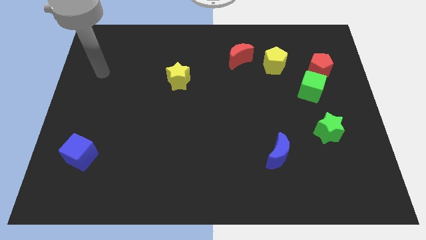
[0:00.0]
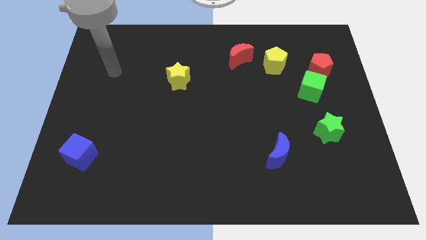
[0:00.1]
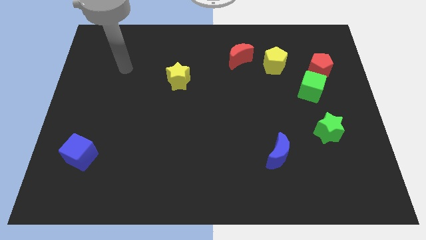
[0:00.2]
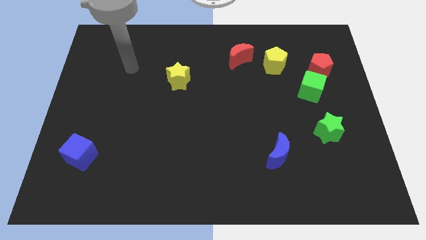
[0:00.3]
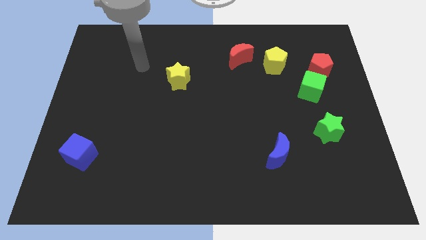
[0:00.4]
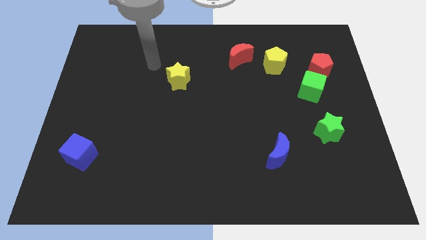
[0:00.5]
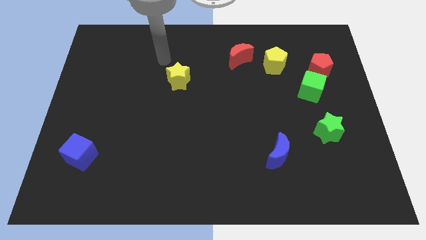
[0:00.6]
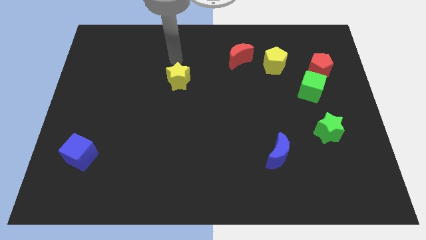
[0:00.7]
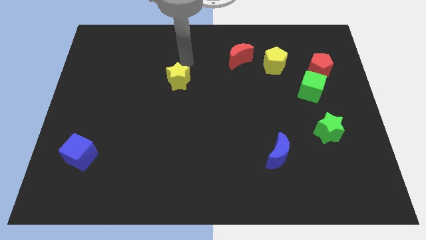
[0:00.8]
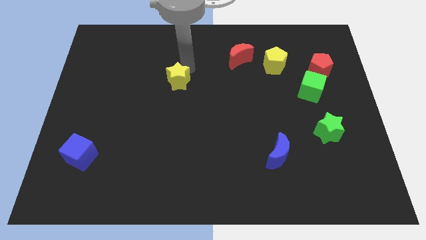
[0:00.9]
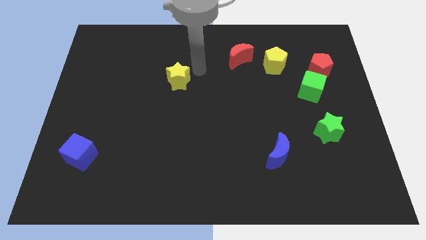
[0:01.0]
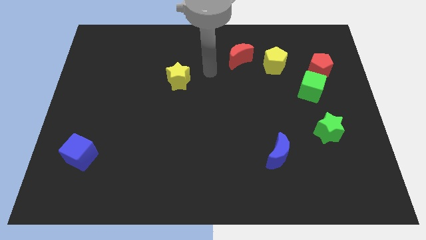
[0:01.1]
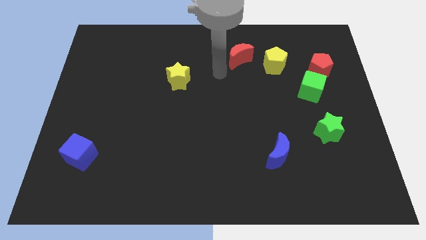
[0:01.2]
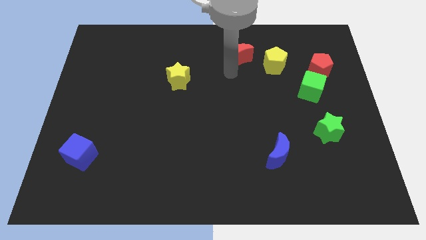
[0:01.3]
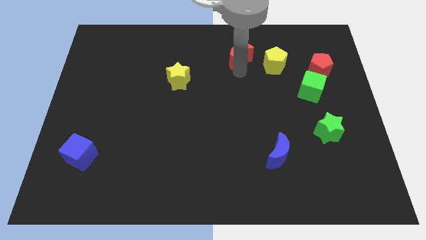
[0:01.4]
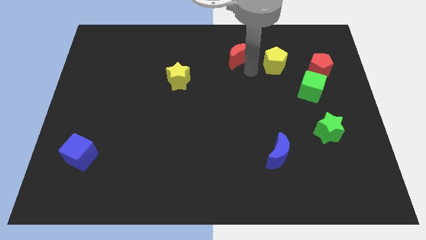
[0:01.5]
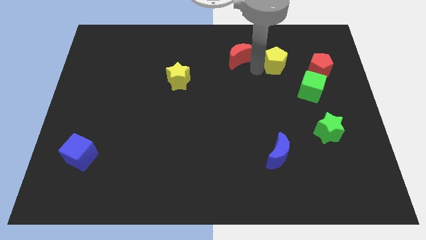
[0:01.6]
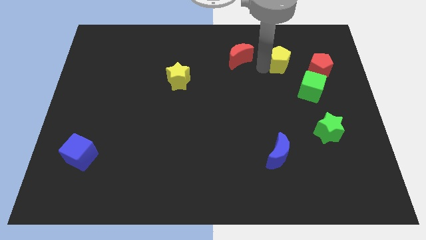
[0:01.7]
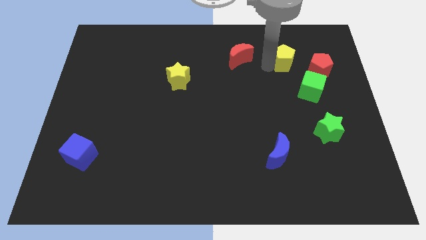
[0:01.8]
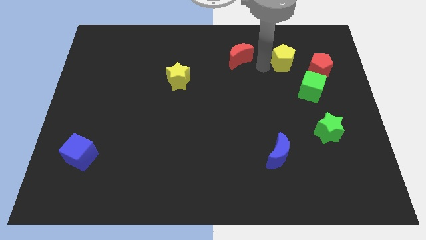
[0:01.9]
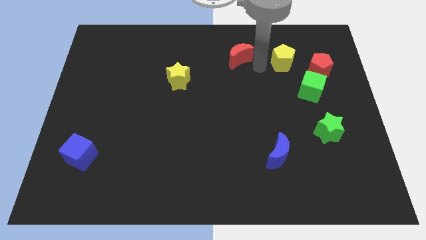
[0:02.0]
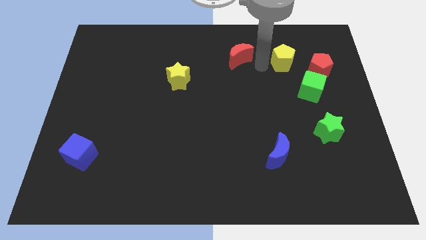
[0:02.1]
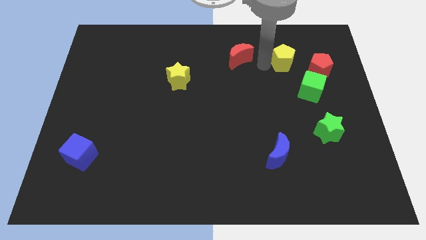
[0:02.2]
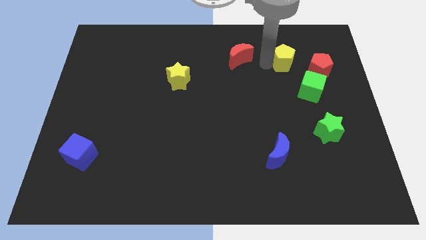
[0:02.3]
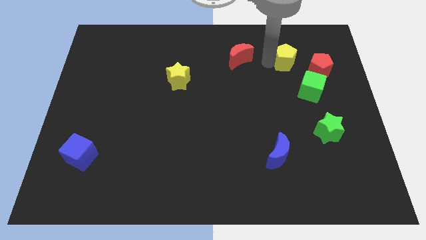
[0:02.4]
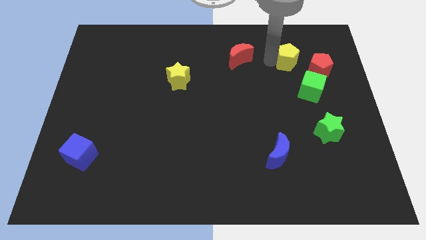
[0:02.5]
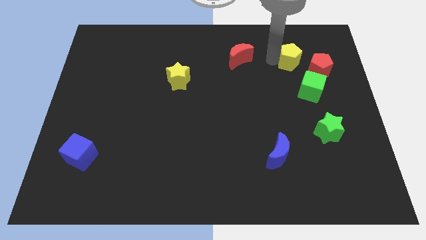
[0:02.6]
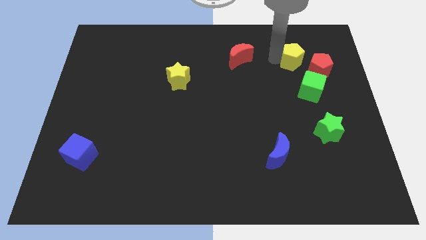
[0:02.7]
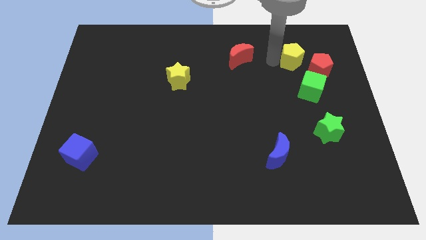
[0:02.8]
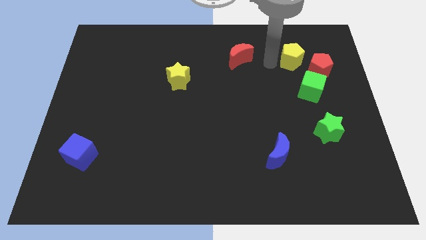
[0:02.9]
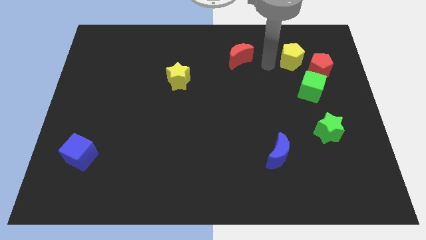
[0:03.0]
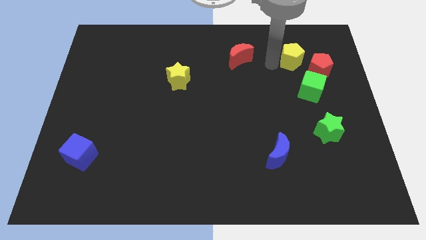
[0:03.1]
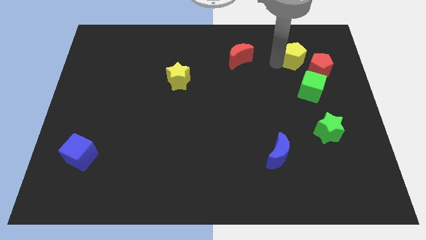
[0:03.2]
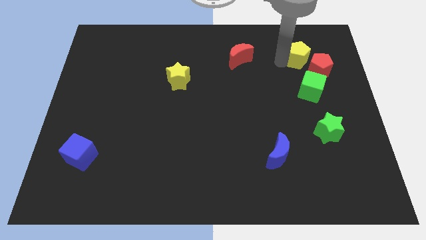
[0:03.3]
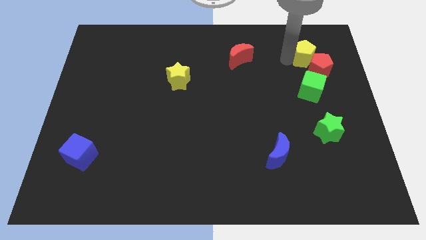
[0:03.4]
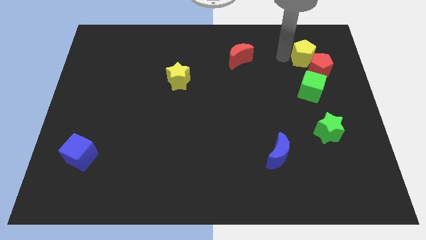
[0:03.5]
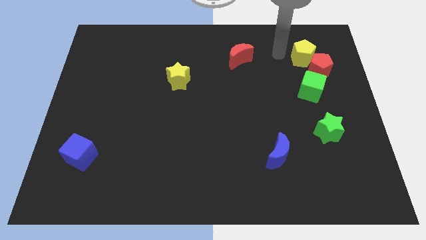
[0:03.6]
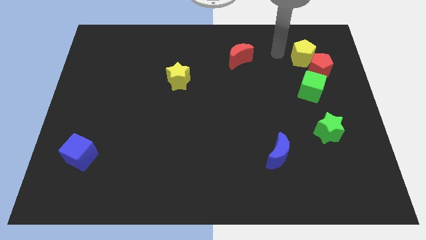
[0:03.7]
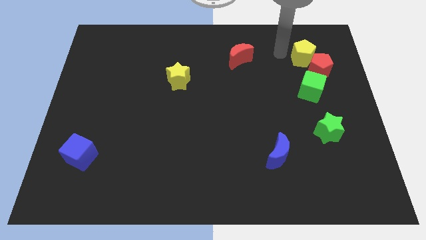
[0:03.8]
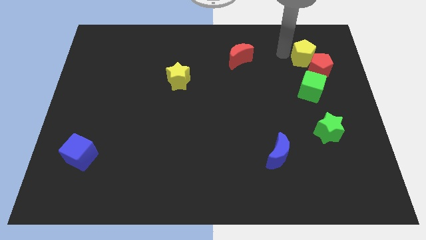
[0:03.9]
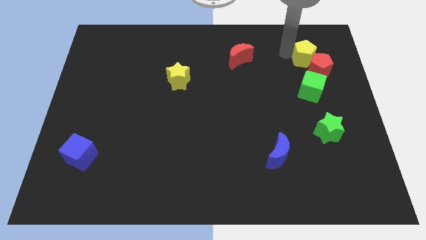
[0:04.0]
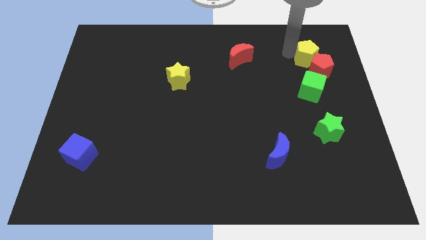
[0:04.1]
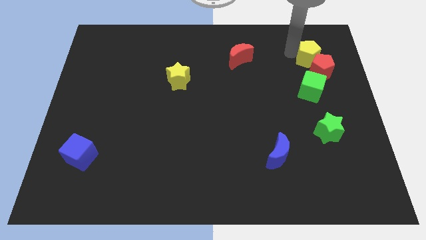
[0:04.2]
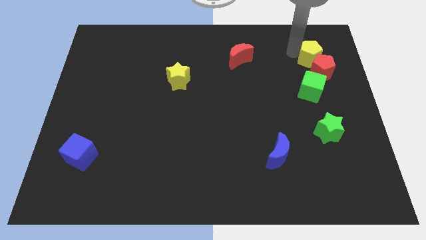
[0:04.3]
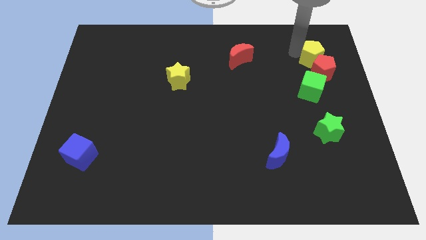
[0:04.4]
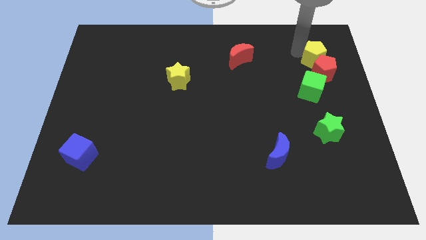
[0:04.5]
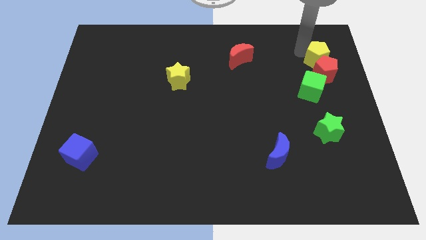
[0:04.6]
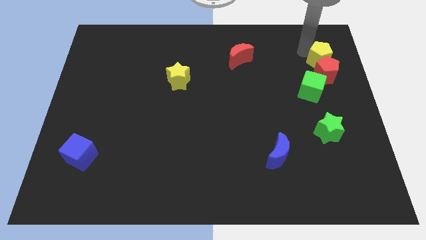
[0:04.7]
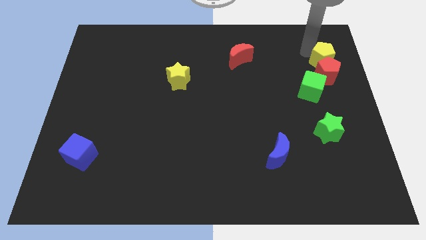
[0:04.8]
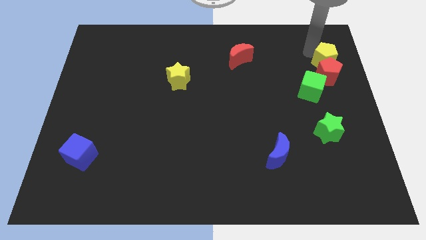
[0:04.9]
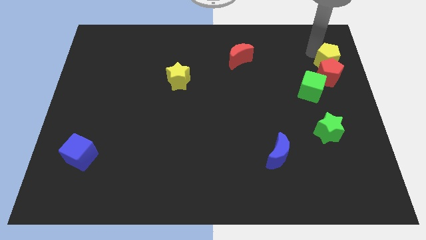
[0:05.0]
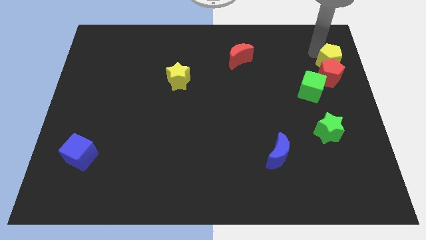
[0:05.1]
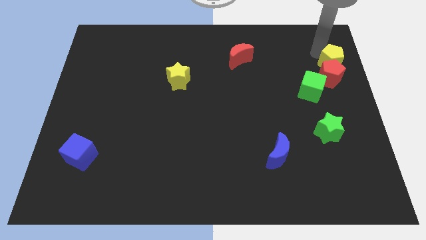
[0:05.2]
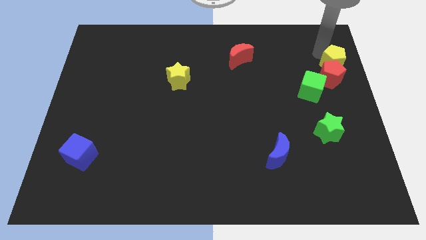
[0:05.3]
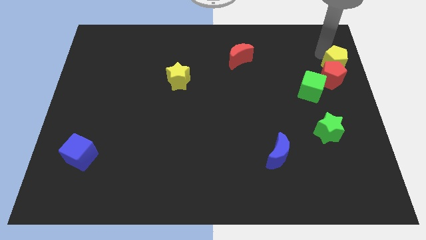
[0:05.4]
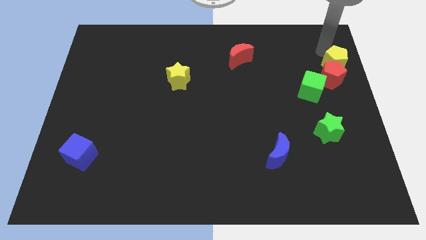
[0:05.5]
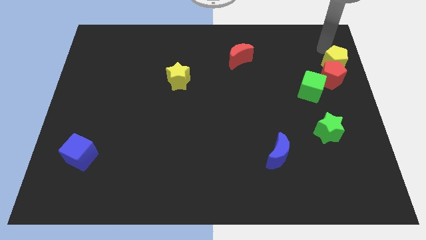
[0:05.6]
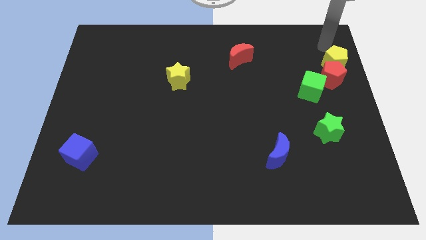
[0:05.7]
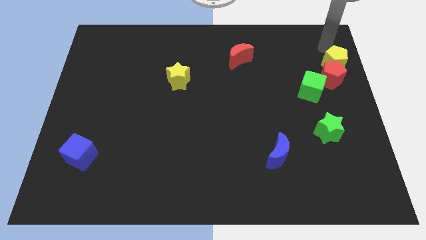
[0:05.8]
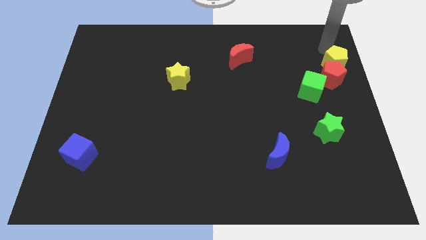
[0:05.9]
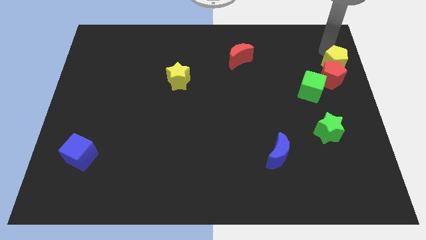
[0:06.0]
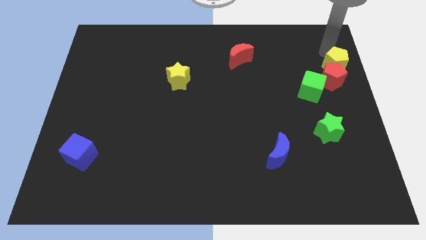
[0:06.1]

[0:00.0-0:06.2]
slide the yellow pentagon to the right side of the board
